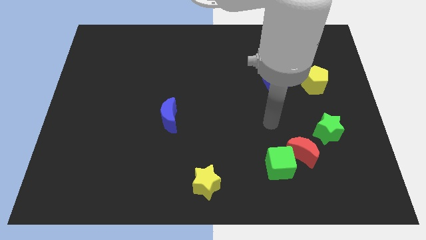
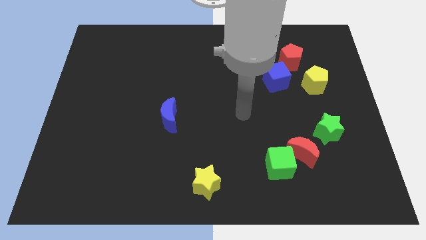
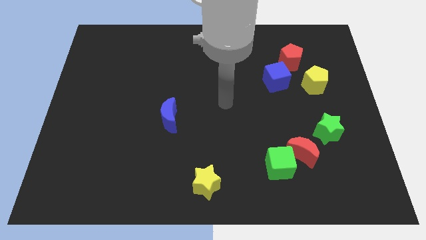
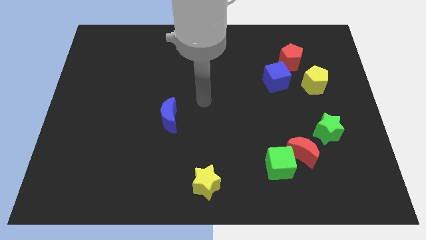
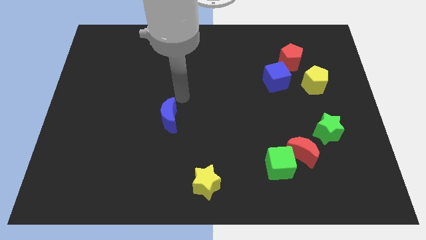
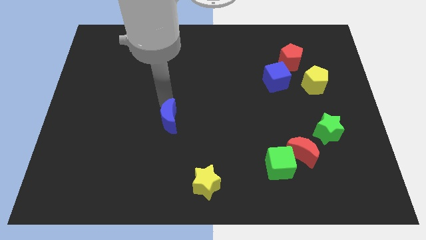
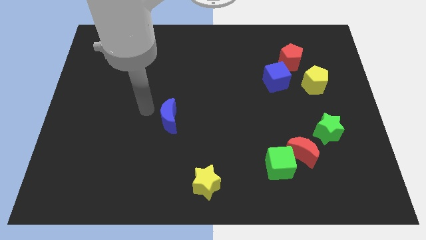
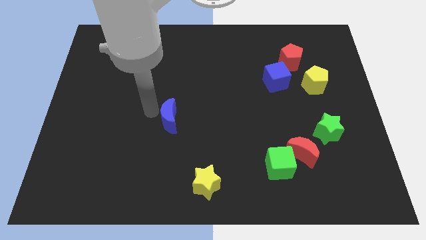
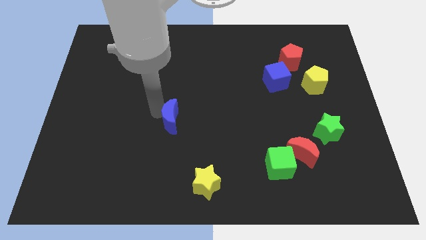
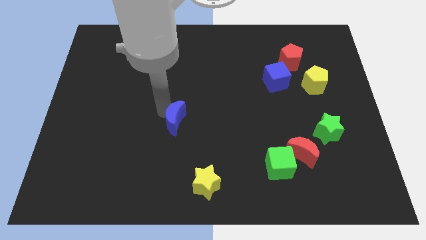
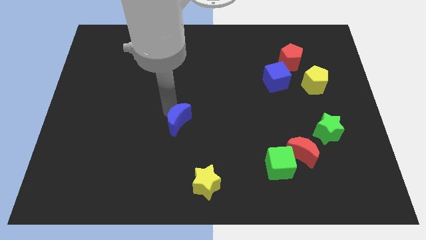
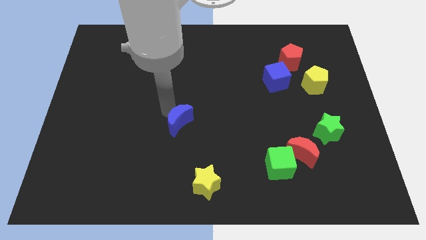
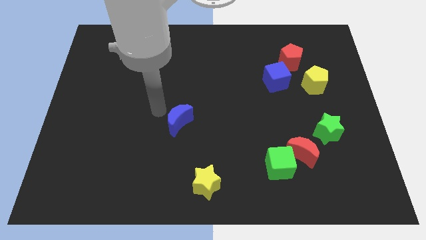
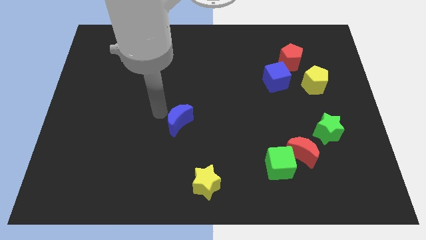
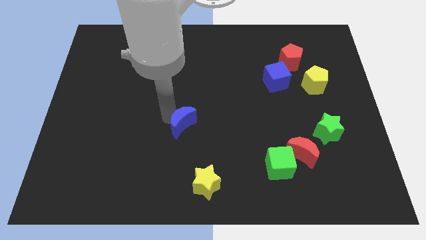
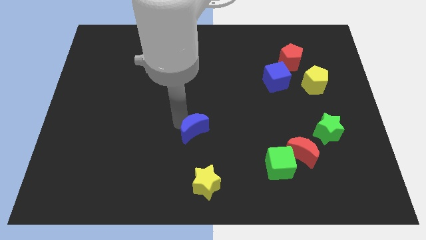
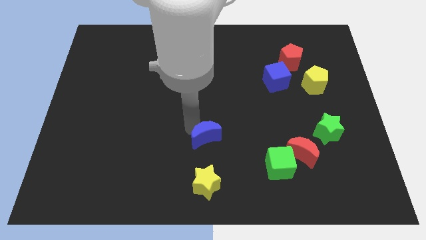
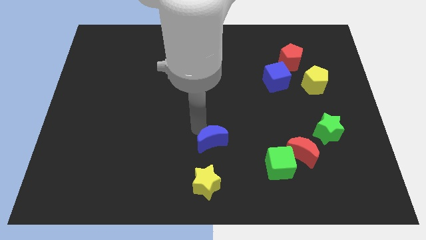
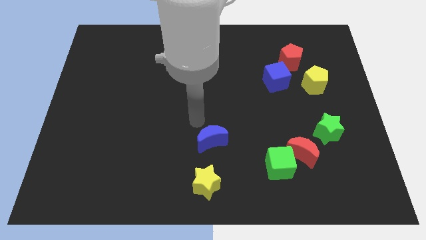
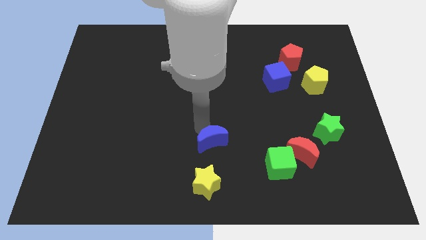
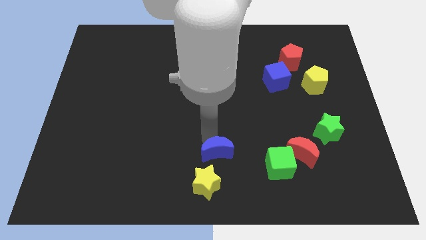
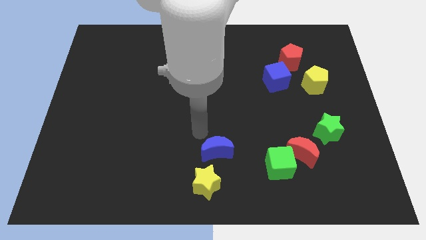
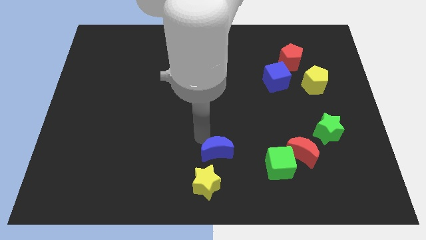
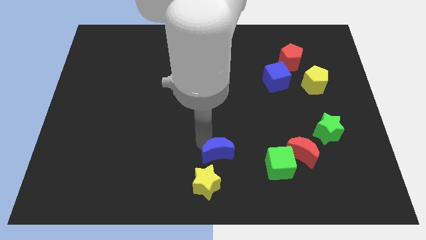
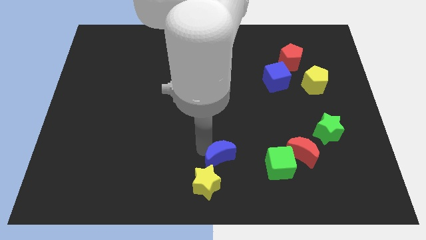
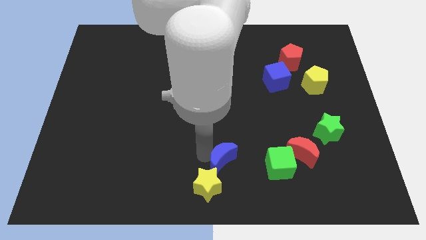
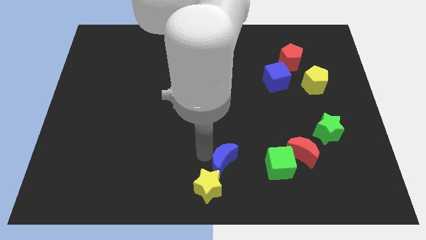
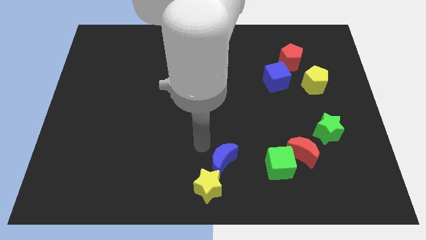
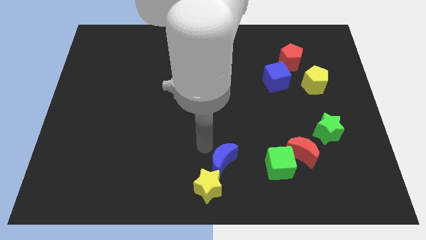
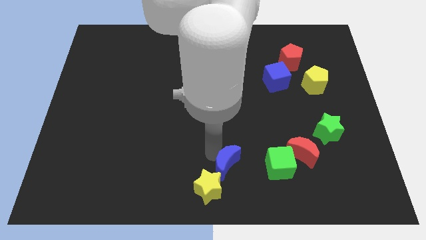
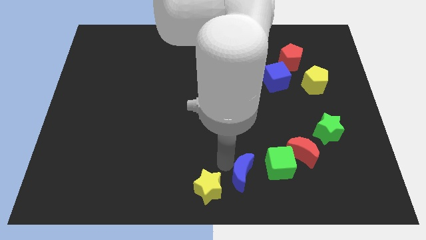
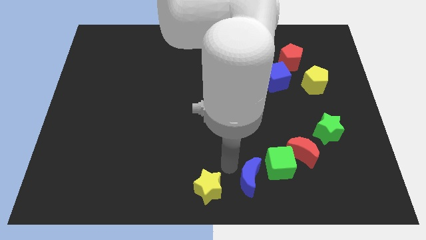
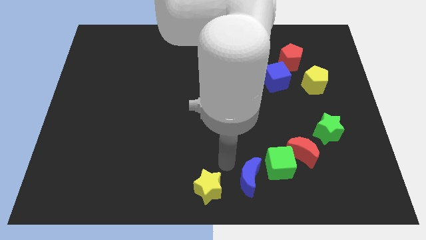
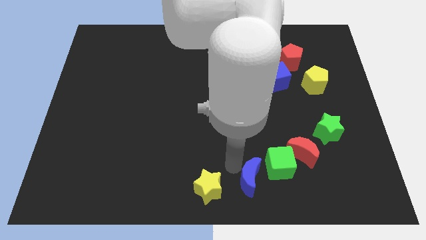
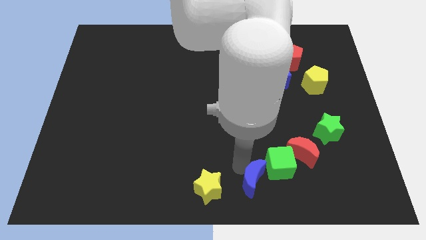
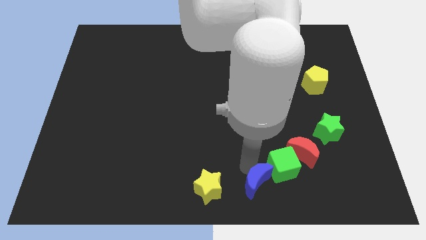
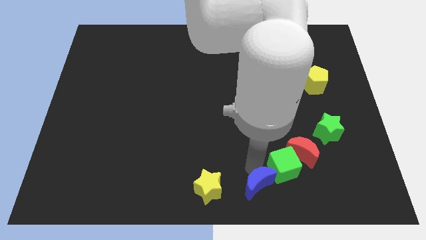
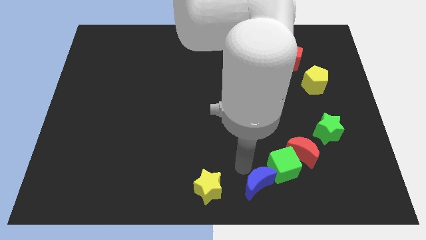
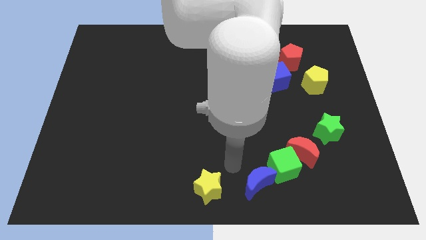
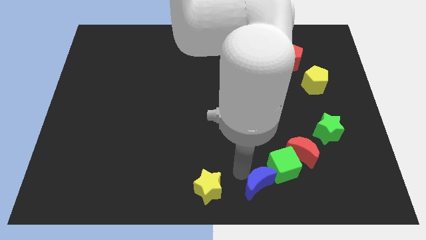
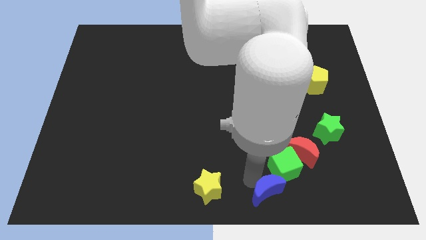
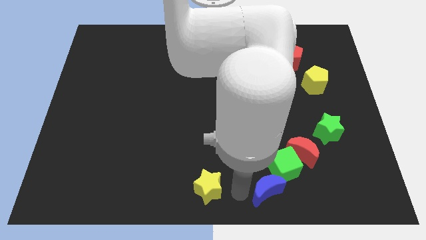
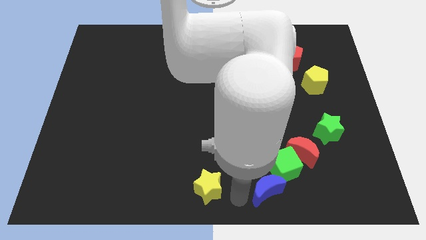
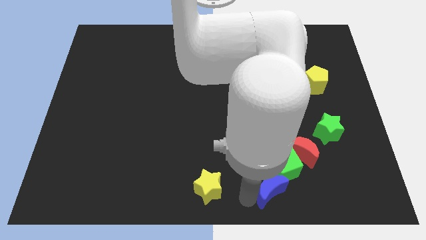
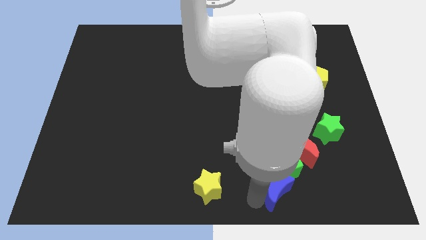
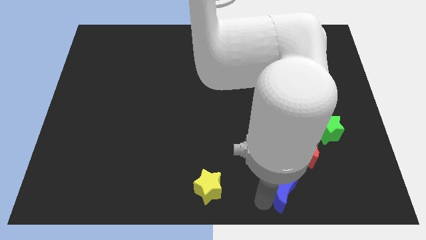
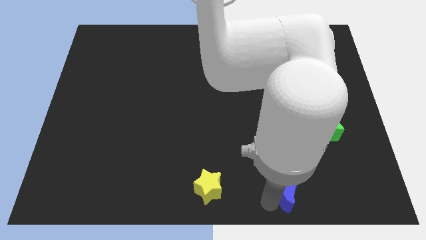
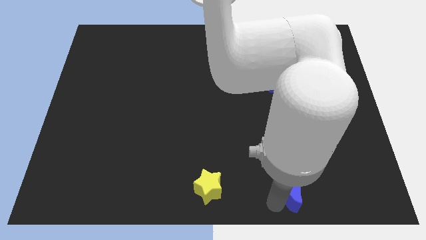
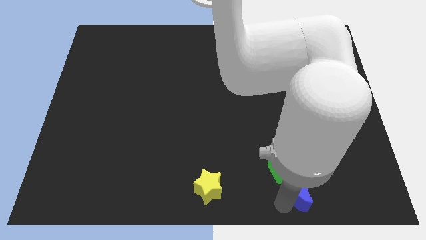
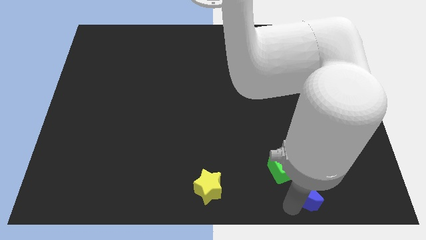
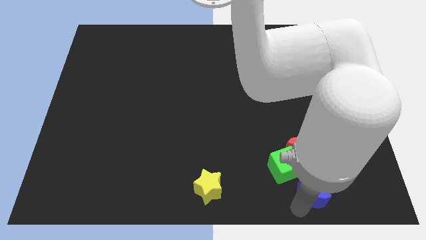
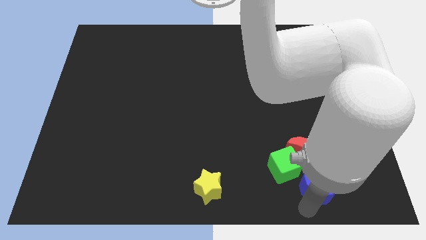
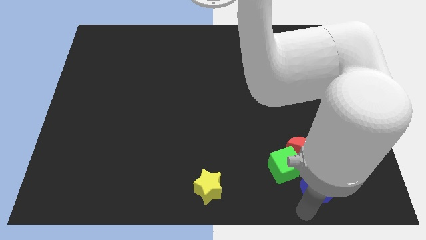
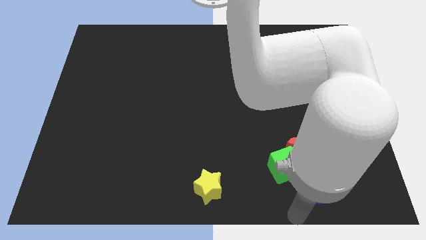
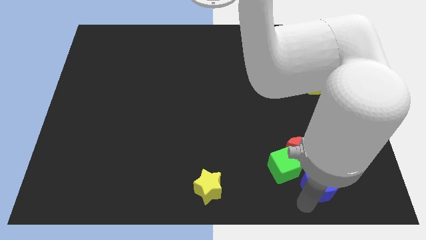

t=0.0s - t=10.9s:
push the blue moon right of the green cube

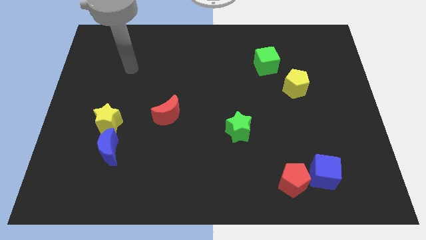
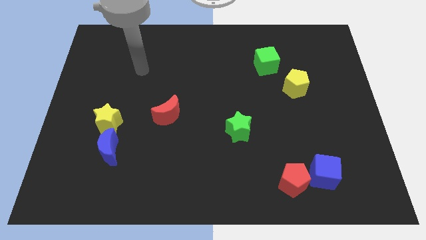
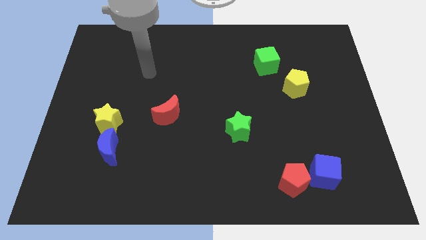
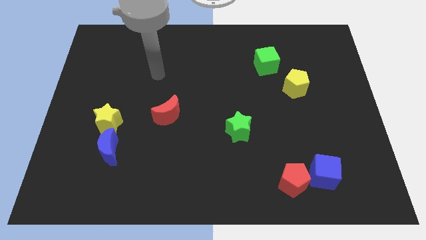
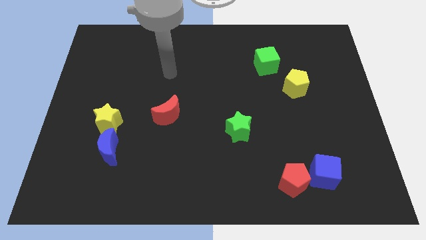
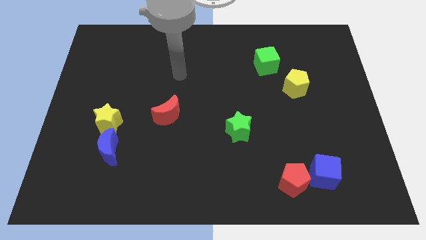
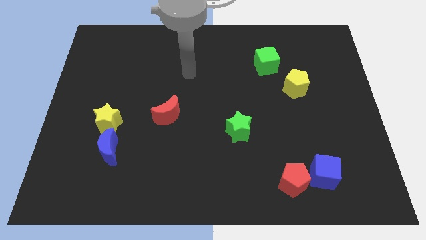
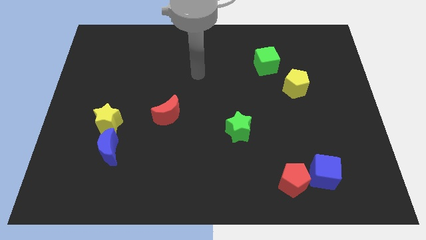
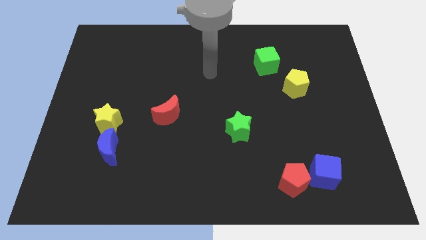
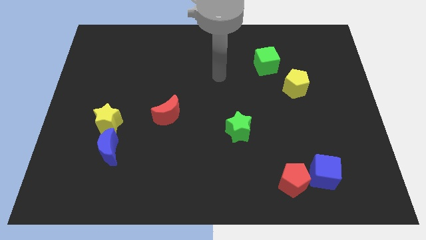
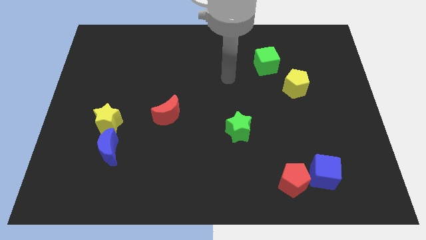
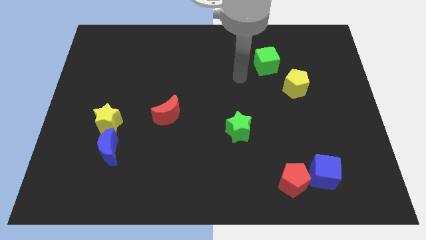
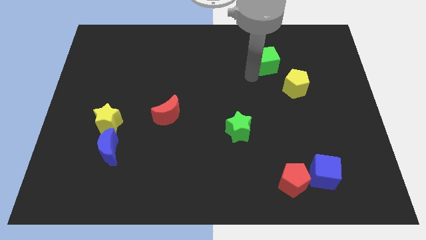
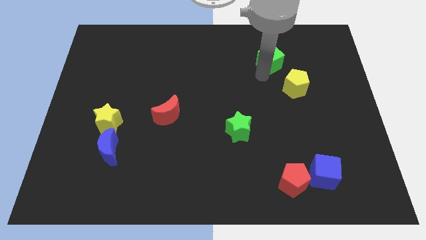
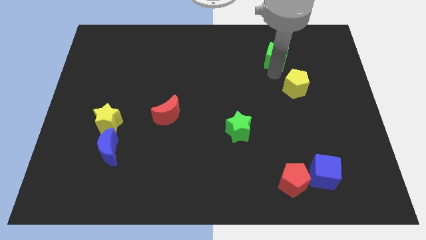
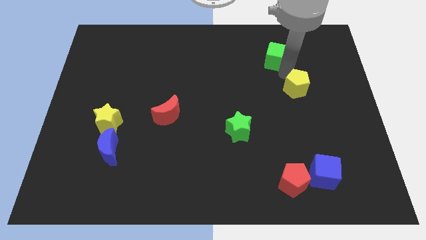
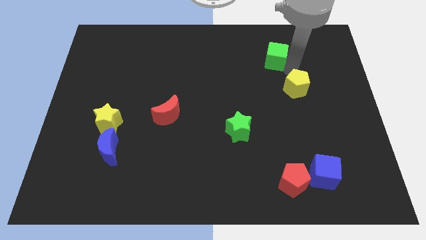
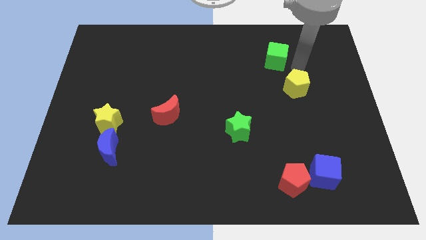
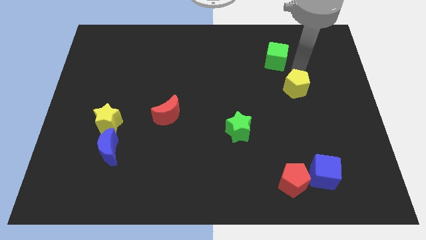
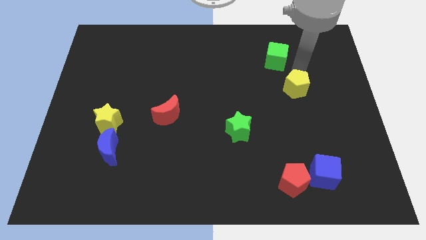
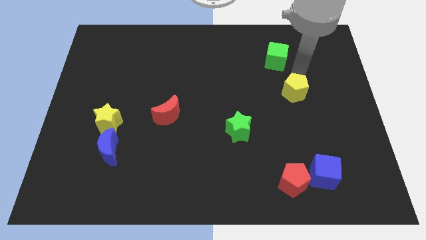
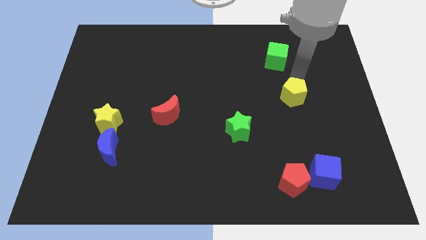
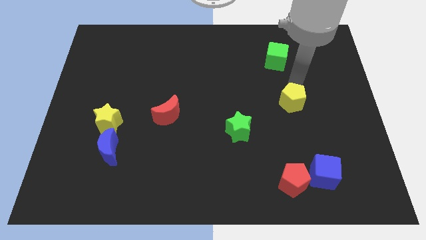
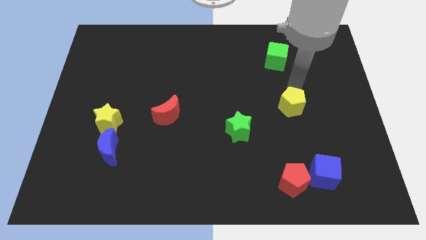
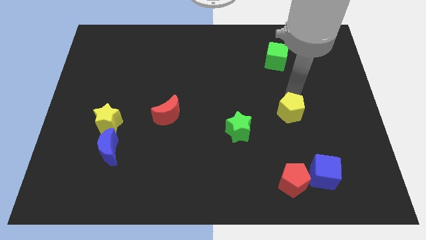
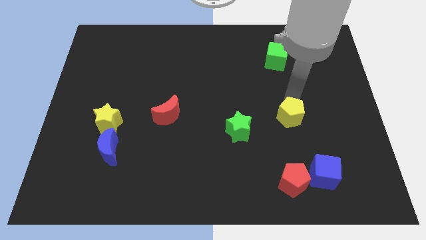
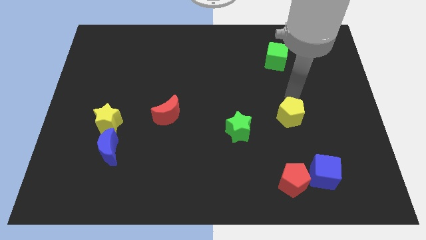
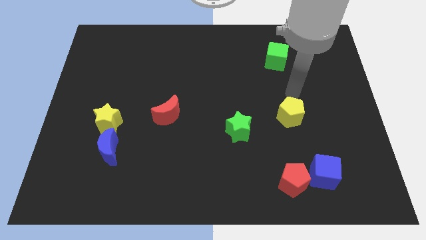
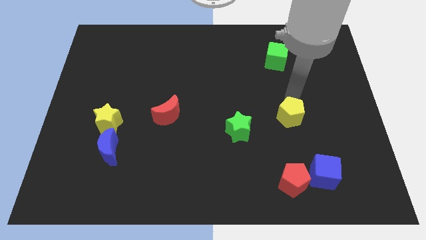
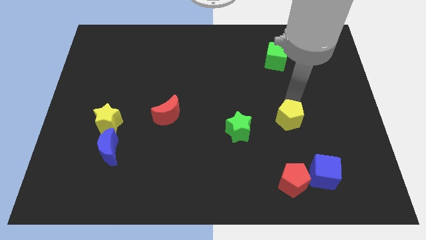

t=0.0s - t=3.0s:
move the yellow pentagon to the top side of the red pentagon
